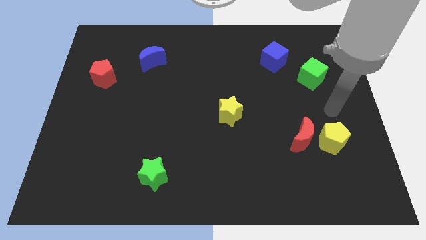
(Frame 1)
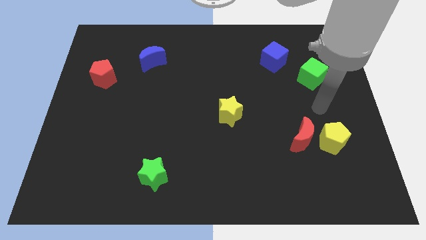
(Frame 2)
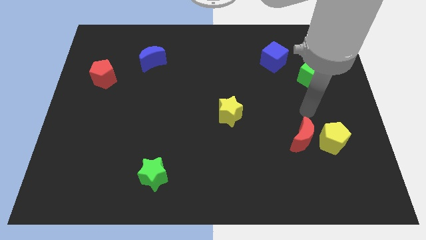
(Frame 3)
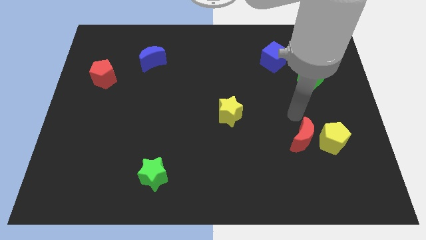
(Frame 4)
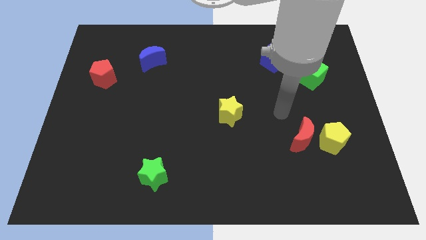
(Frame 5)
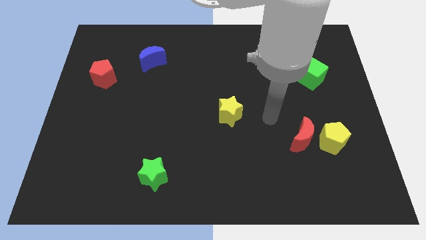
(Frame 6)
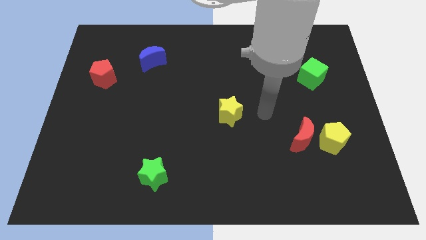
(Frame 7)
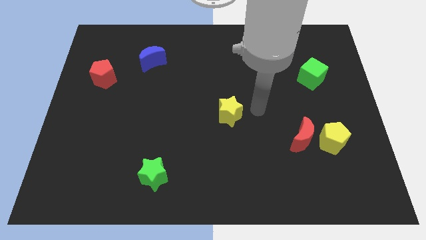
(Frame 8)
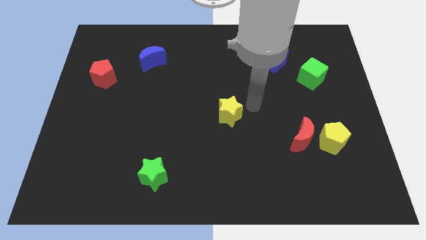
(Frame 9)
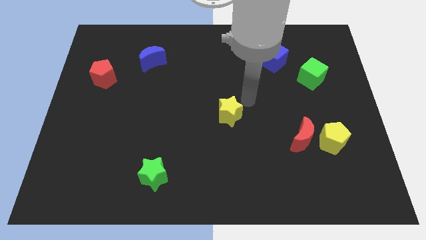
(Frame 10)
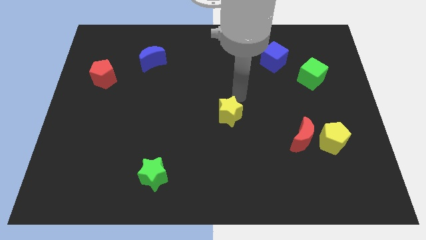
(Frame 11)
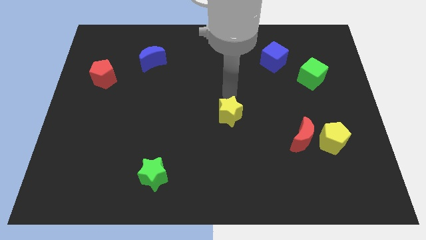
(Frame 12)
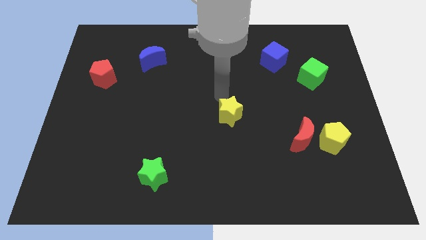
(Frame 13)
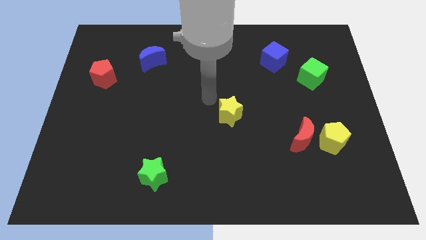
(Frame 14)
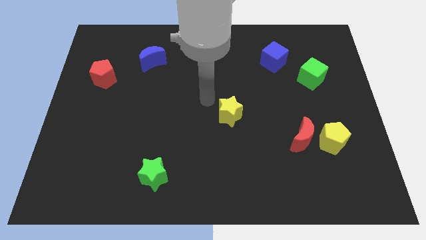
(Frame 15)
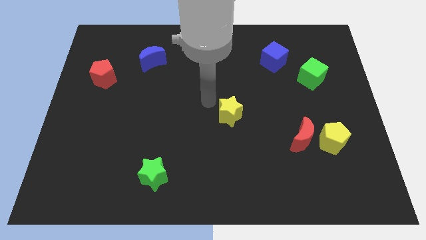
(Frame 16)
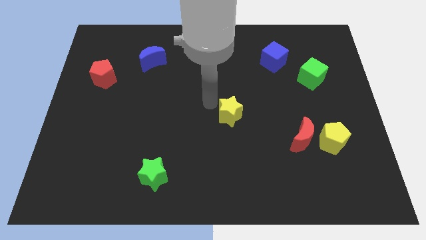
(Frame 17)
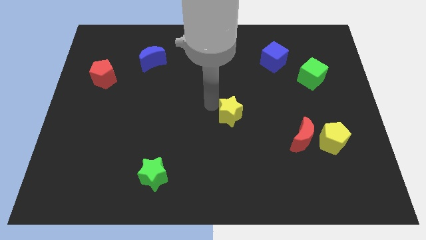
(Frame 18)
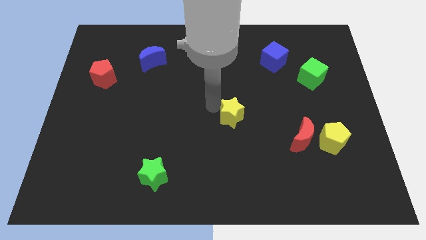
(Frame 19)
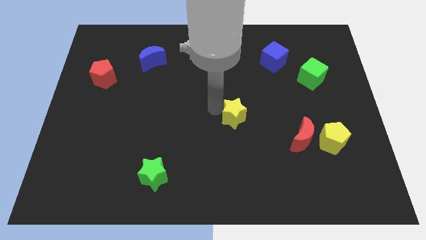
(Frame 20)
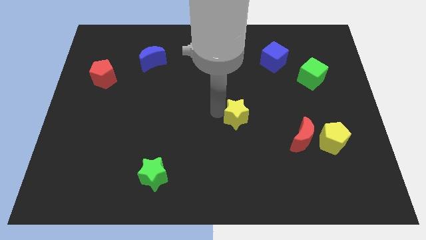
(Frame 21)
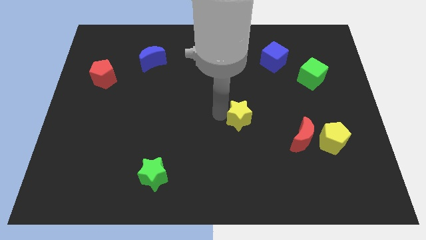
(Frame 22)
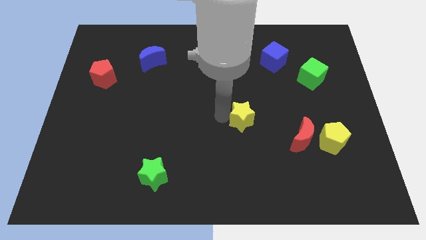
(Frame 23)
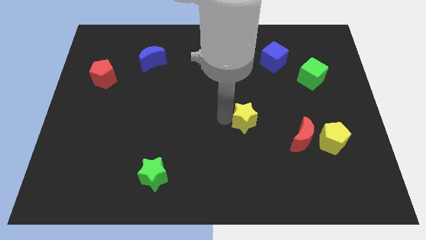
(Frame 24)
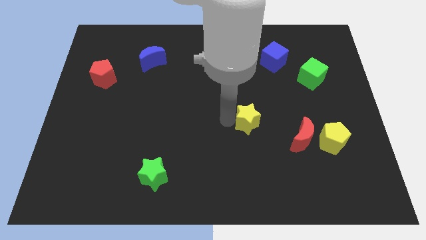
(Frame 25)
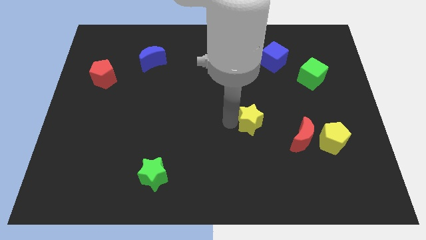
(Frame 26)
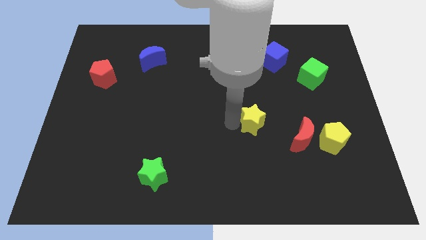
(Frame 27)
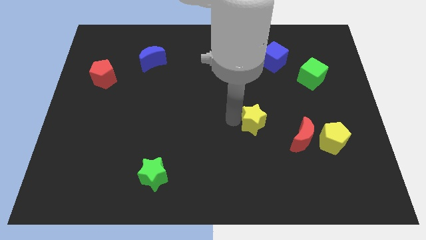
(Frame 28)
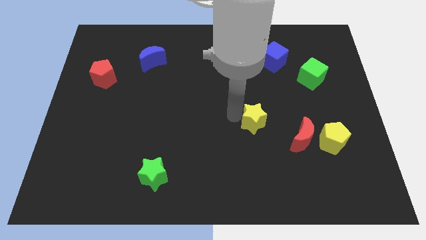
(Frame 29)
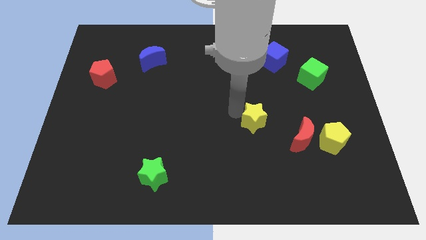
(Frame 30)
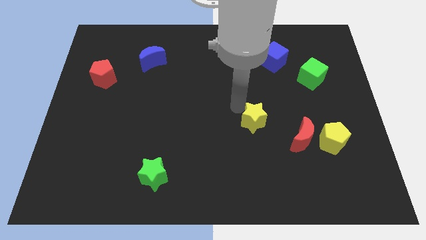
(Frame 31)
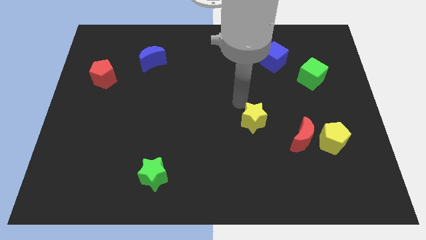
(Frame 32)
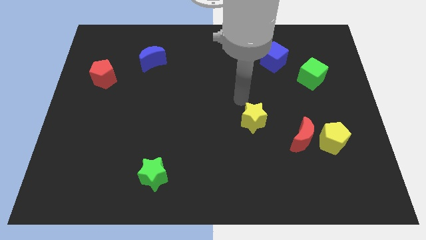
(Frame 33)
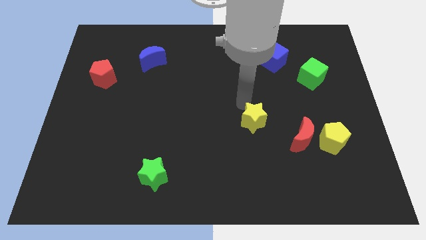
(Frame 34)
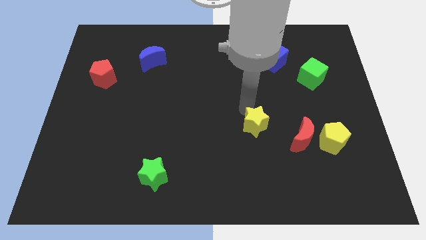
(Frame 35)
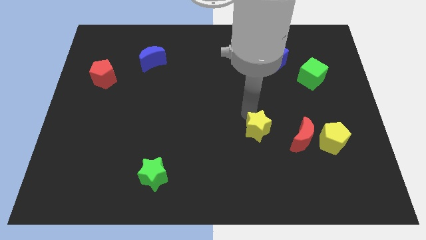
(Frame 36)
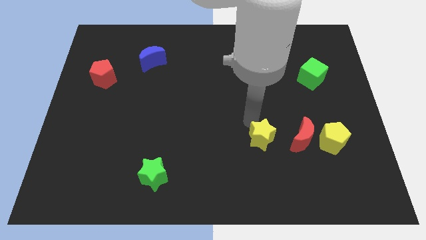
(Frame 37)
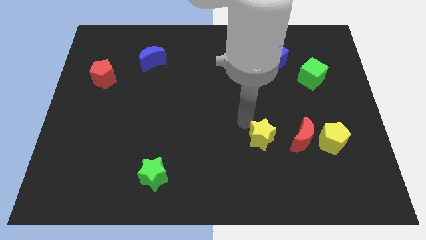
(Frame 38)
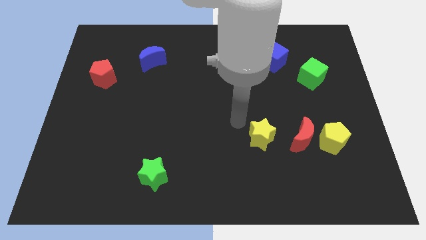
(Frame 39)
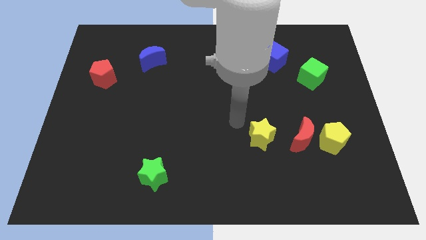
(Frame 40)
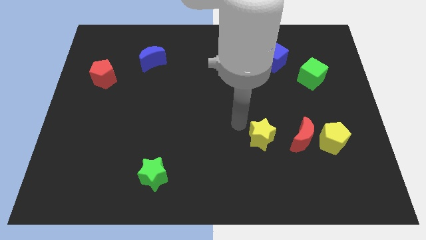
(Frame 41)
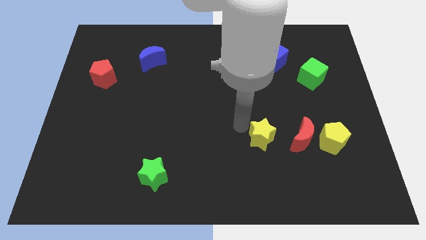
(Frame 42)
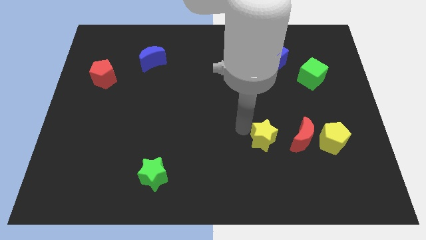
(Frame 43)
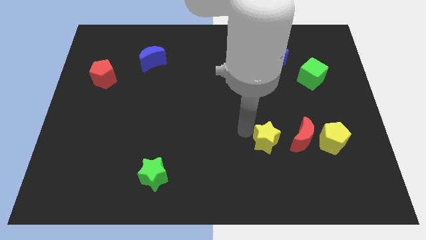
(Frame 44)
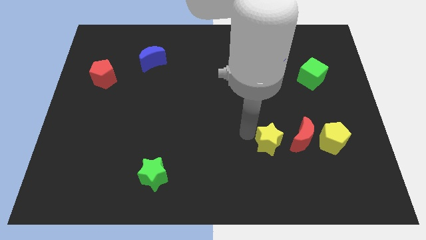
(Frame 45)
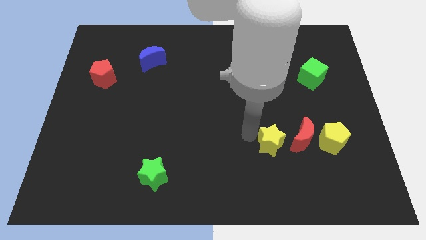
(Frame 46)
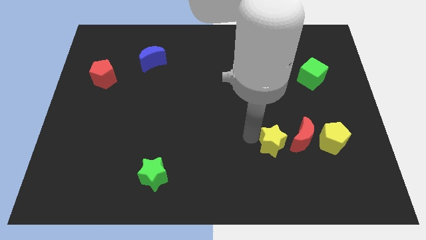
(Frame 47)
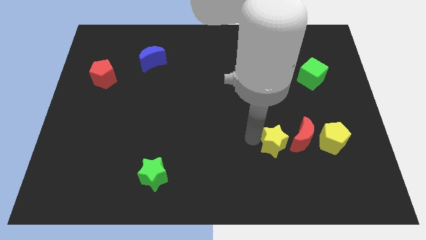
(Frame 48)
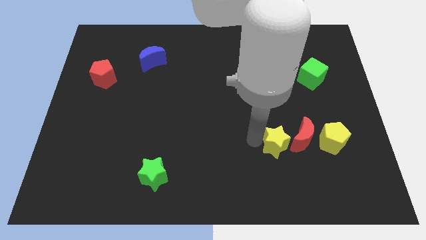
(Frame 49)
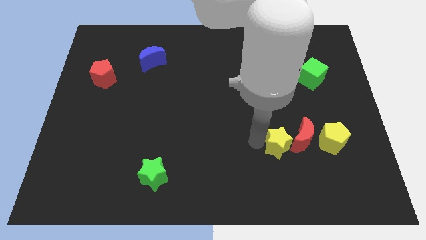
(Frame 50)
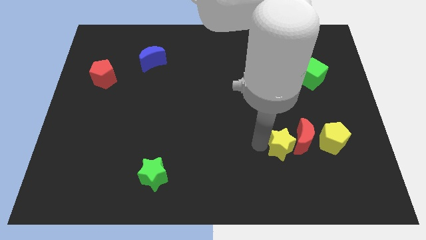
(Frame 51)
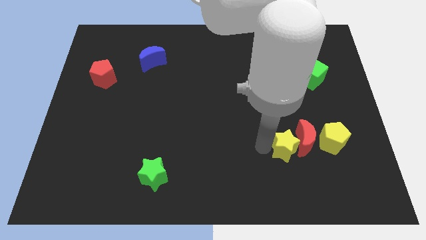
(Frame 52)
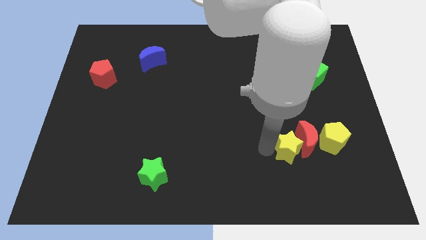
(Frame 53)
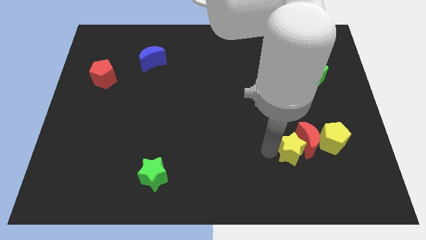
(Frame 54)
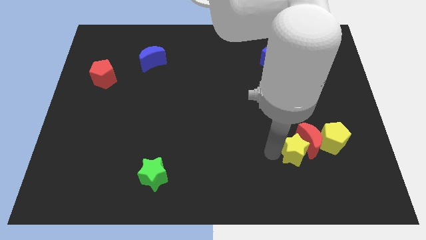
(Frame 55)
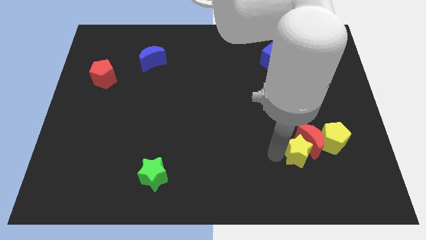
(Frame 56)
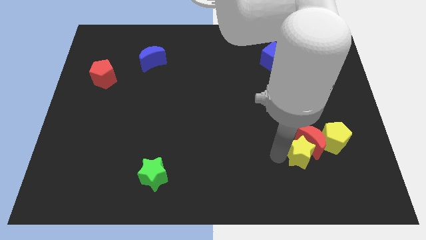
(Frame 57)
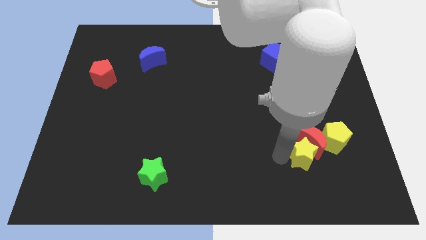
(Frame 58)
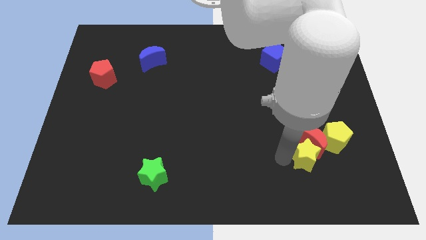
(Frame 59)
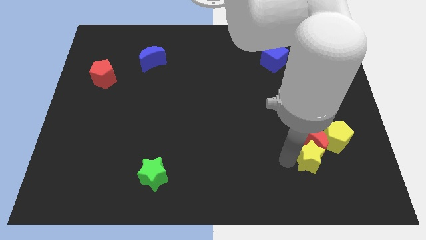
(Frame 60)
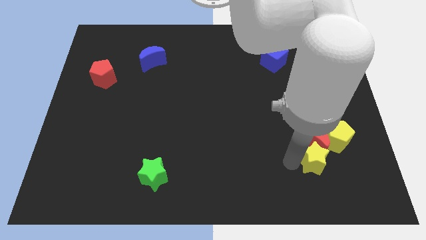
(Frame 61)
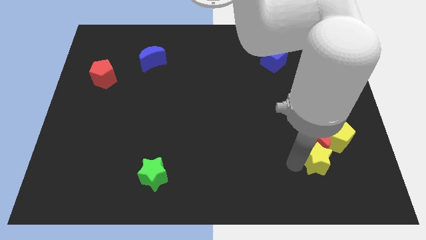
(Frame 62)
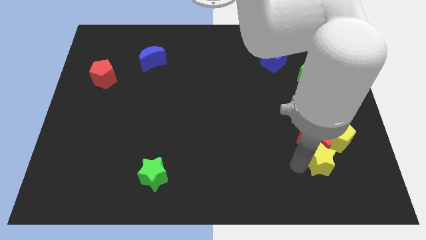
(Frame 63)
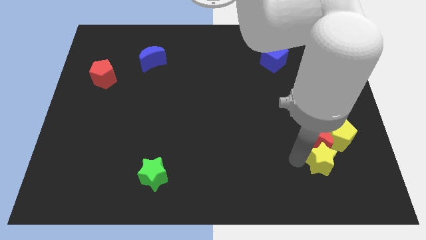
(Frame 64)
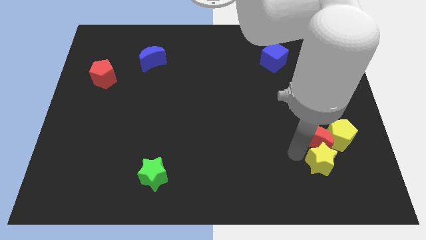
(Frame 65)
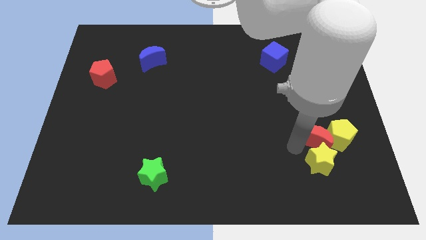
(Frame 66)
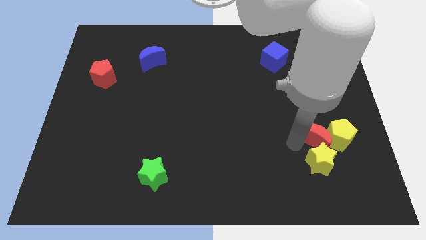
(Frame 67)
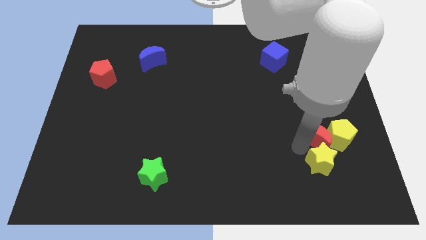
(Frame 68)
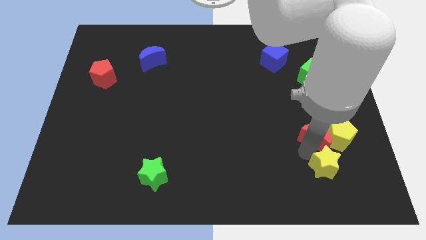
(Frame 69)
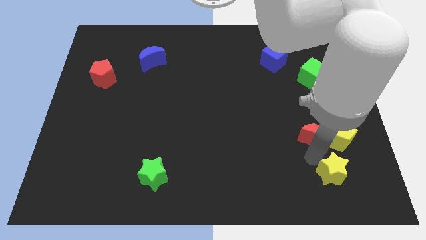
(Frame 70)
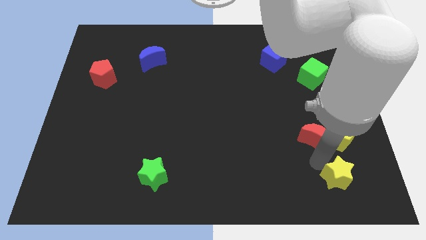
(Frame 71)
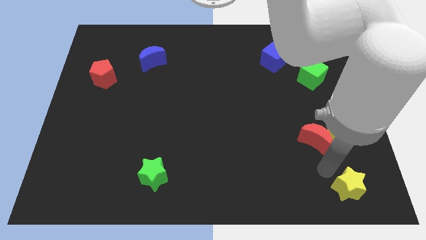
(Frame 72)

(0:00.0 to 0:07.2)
push the yellow star to the bottom right of the board
